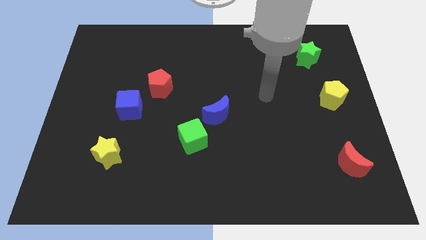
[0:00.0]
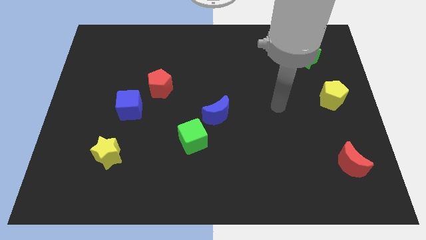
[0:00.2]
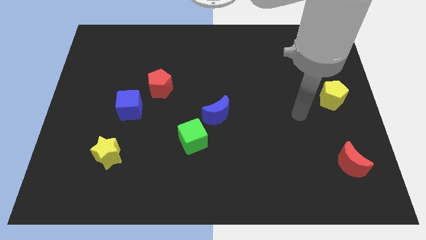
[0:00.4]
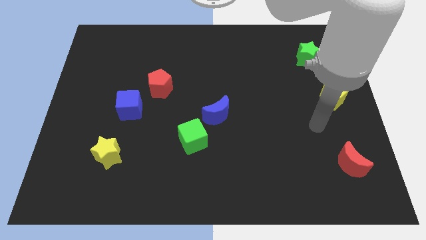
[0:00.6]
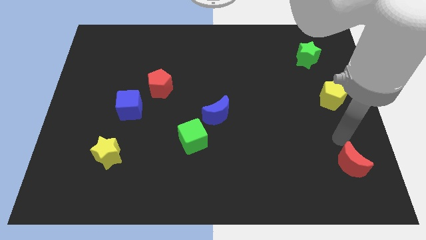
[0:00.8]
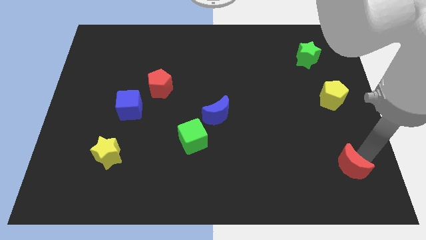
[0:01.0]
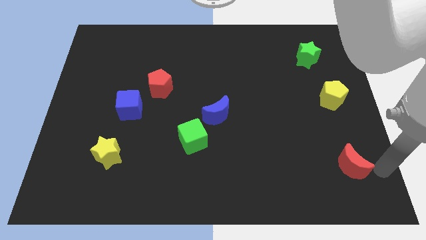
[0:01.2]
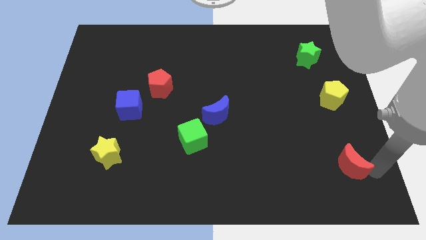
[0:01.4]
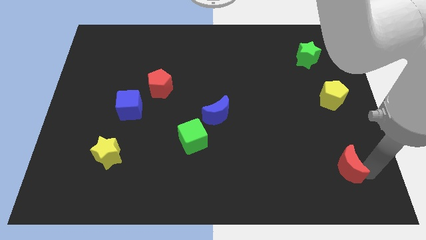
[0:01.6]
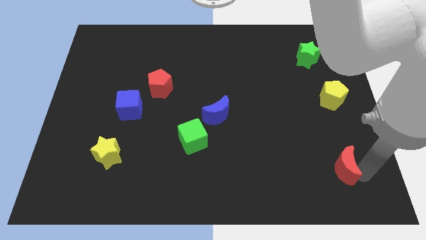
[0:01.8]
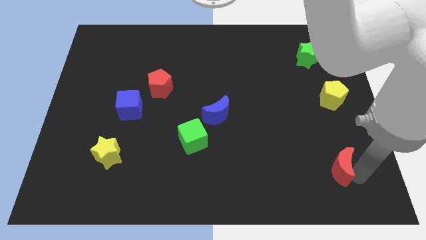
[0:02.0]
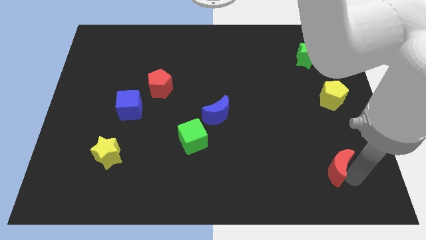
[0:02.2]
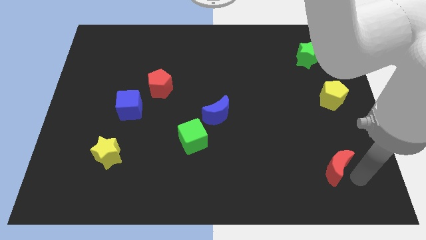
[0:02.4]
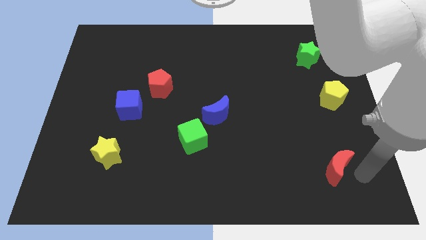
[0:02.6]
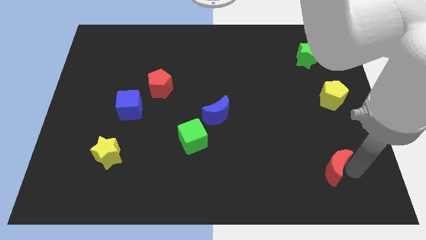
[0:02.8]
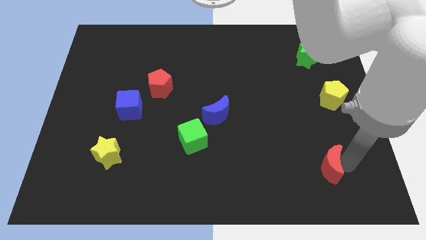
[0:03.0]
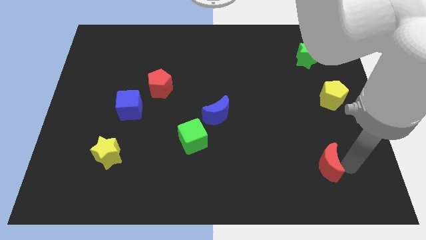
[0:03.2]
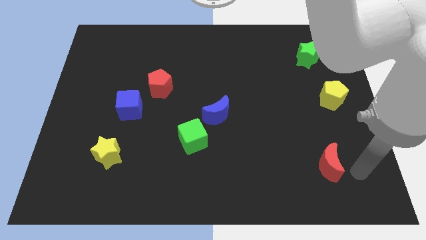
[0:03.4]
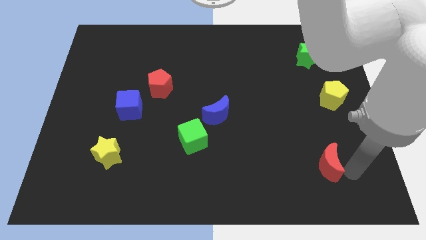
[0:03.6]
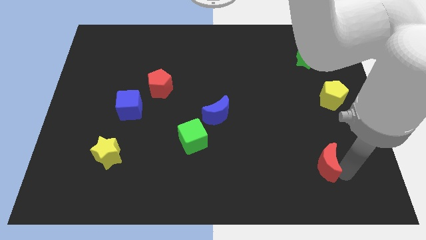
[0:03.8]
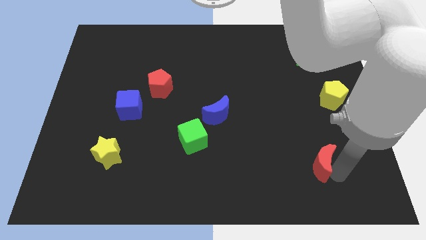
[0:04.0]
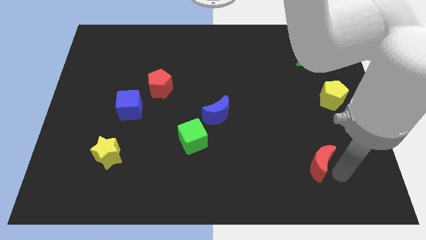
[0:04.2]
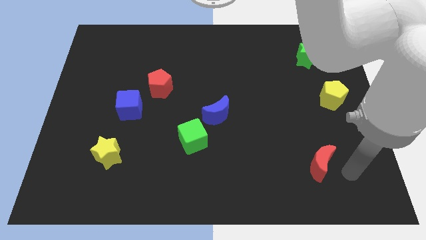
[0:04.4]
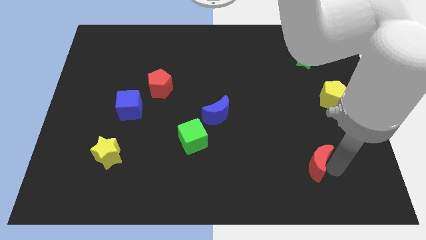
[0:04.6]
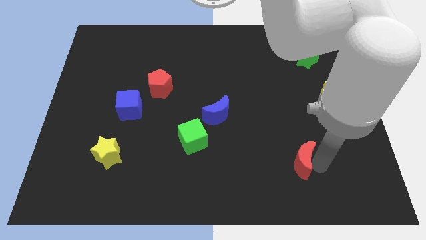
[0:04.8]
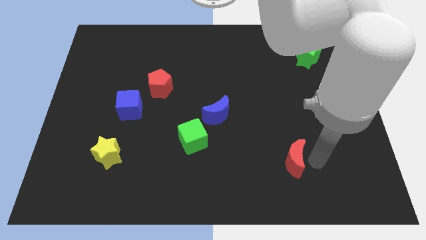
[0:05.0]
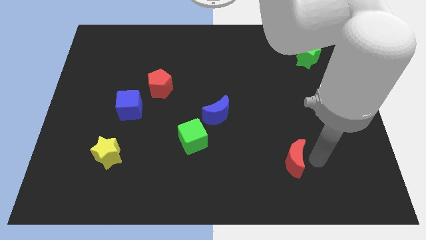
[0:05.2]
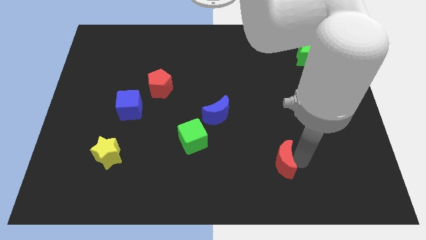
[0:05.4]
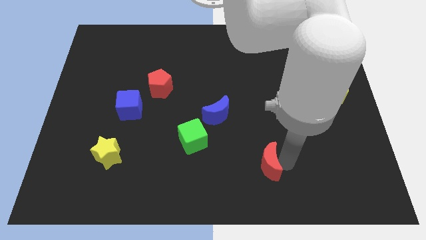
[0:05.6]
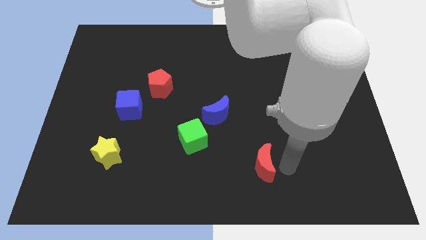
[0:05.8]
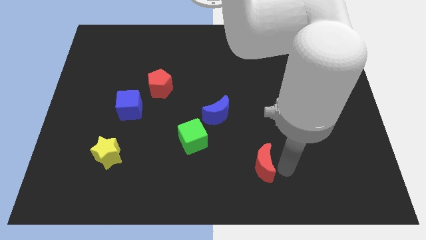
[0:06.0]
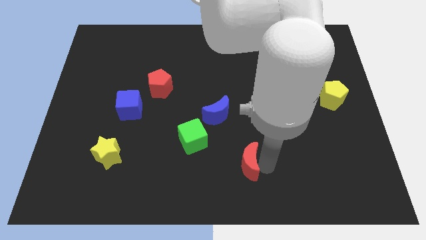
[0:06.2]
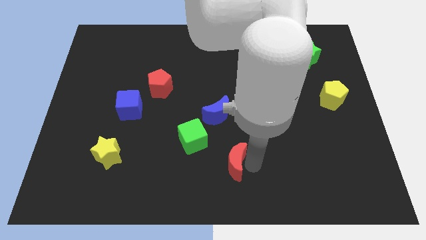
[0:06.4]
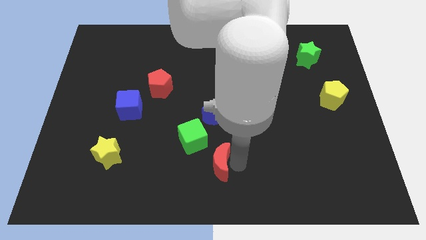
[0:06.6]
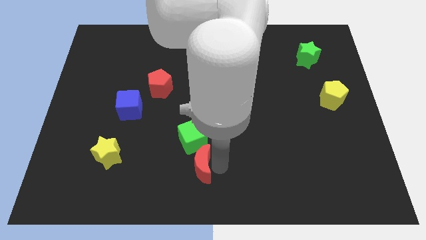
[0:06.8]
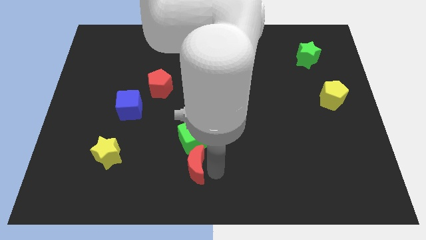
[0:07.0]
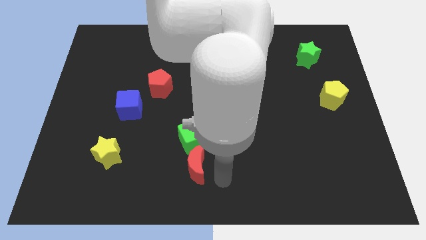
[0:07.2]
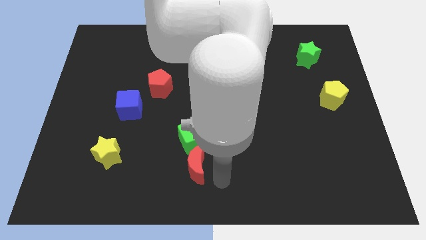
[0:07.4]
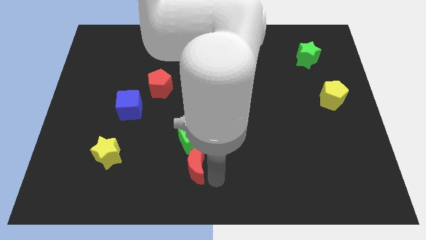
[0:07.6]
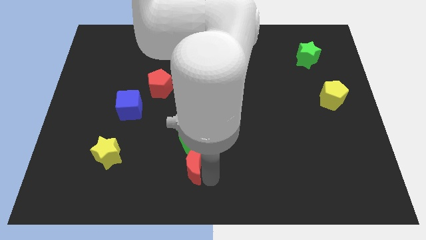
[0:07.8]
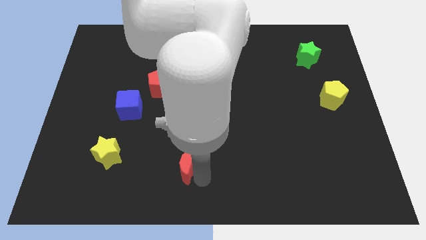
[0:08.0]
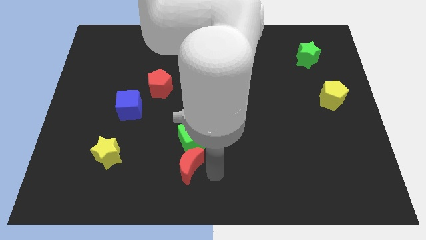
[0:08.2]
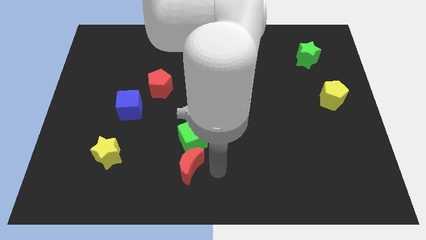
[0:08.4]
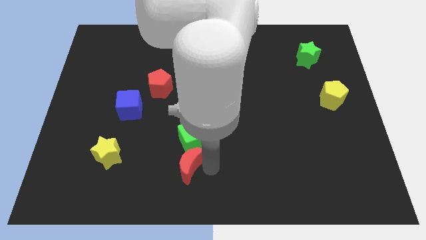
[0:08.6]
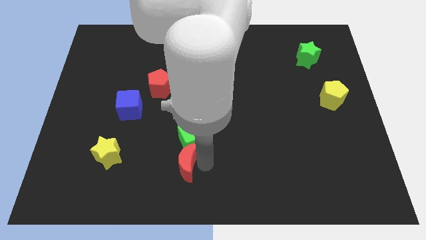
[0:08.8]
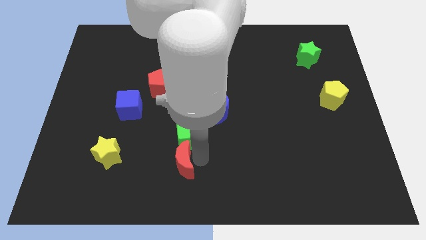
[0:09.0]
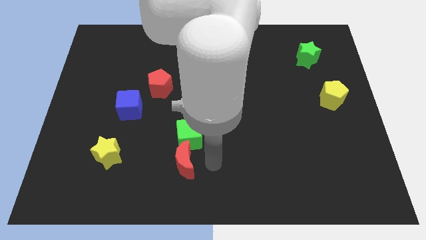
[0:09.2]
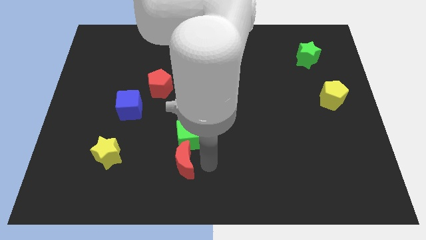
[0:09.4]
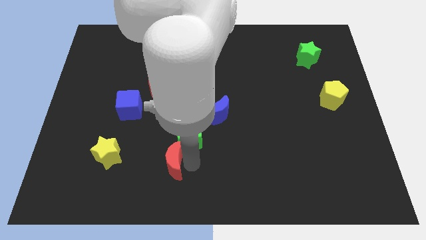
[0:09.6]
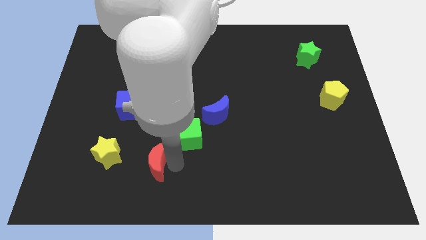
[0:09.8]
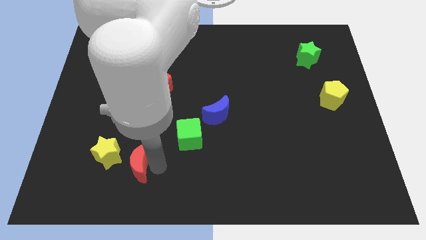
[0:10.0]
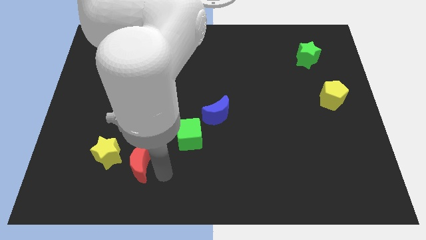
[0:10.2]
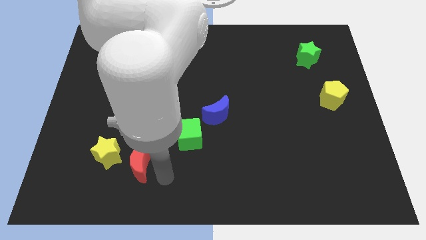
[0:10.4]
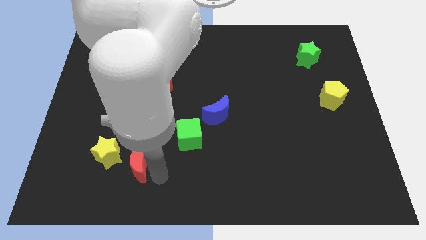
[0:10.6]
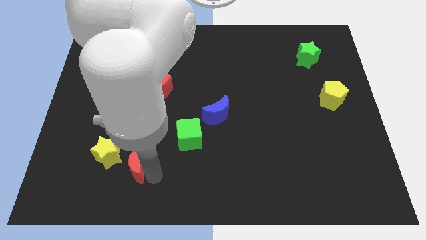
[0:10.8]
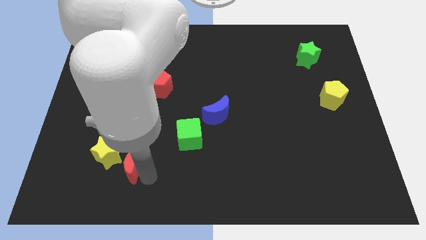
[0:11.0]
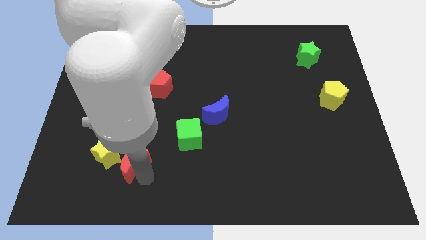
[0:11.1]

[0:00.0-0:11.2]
push the red moon next to the yellow star

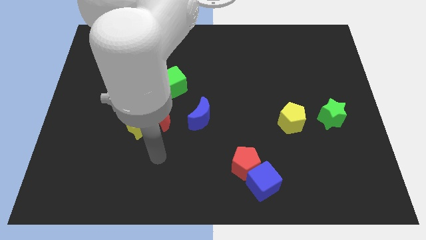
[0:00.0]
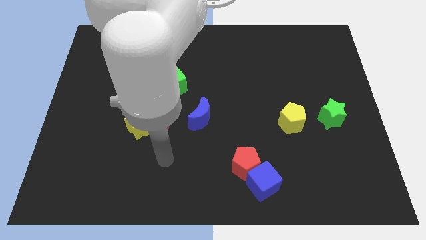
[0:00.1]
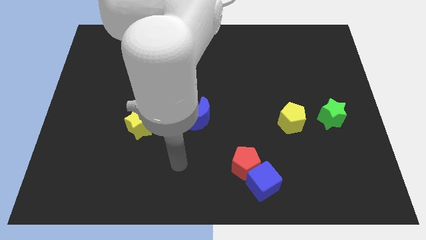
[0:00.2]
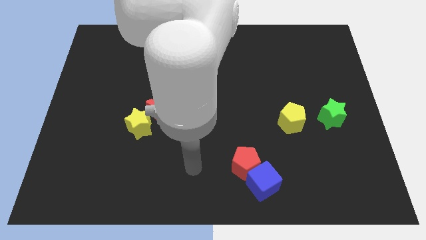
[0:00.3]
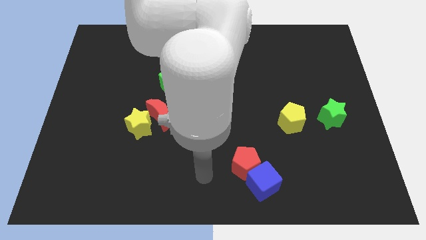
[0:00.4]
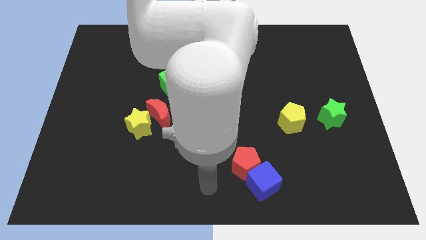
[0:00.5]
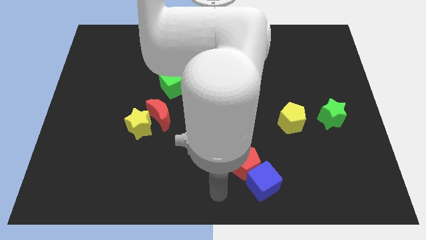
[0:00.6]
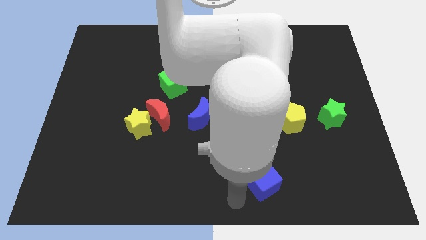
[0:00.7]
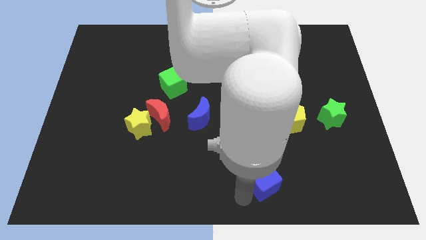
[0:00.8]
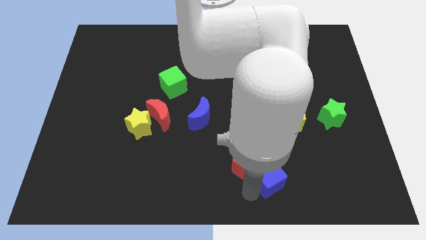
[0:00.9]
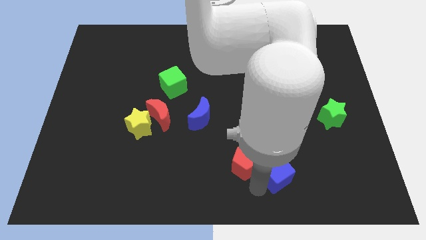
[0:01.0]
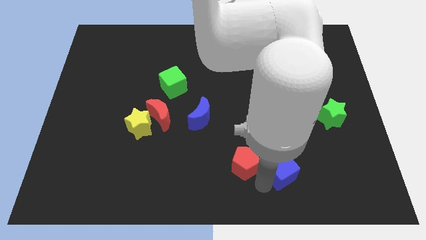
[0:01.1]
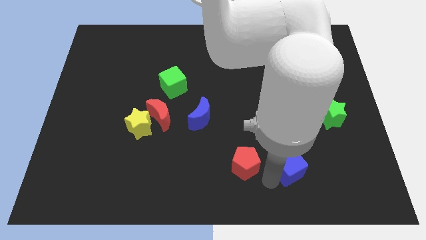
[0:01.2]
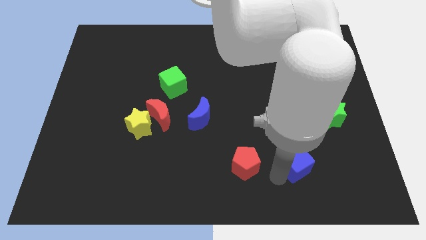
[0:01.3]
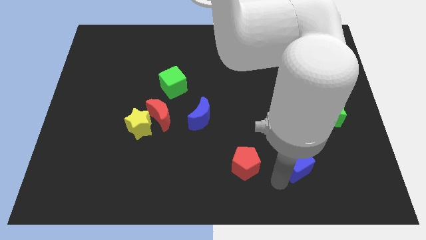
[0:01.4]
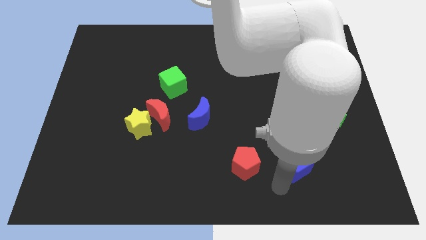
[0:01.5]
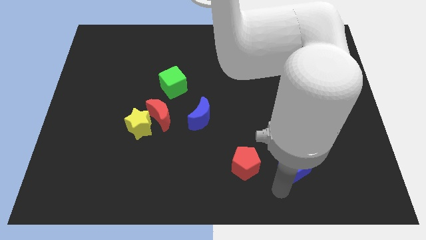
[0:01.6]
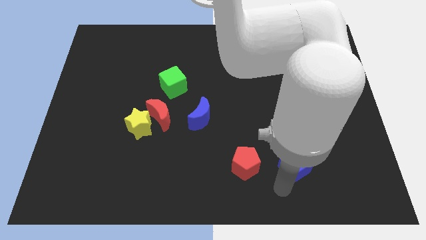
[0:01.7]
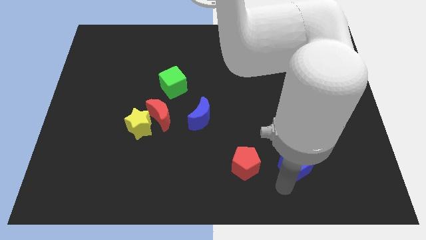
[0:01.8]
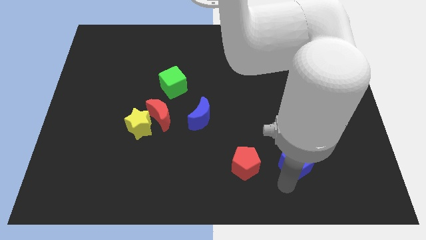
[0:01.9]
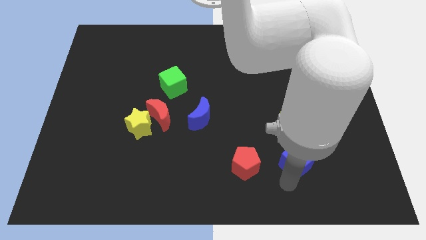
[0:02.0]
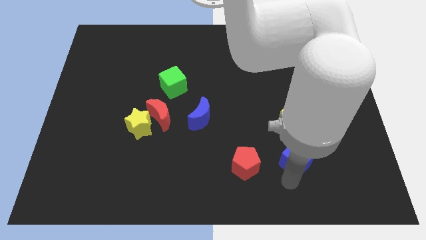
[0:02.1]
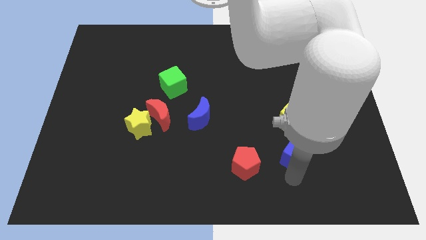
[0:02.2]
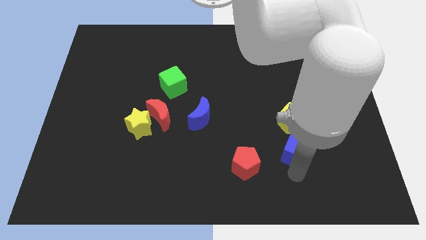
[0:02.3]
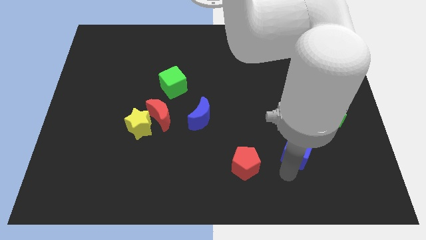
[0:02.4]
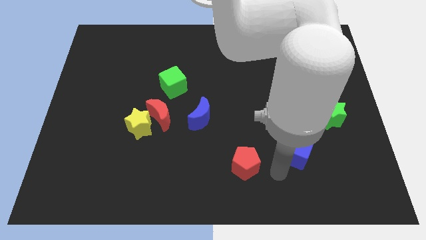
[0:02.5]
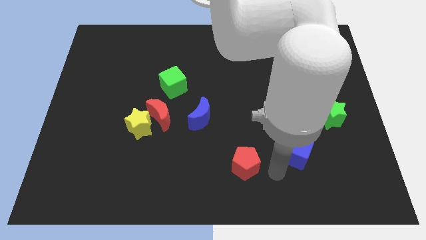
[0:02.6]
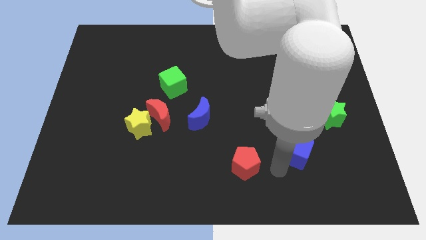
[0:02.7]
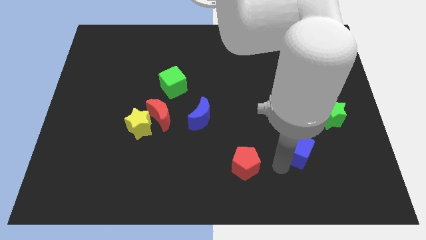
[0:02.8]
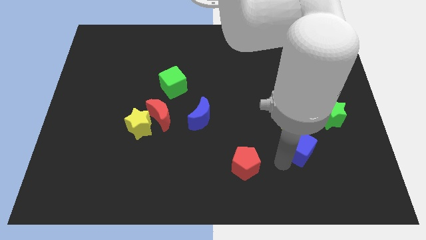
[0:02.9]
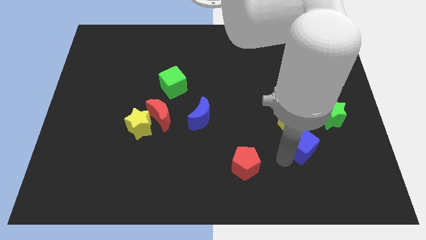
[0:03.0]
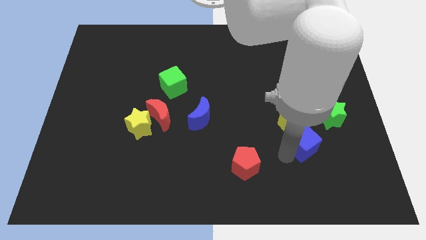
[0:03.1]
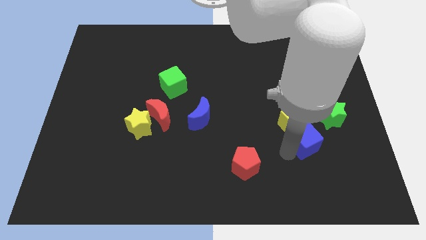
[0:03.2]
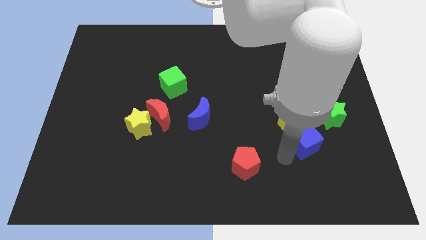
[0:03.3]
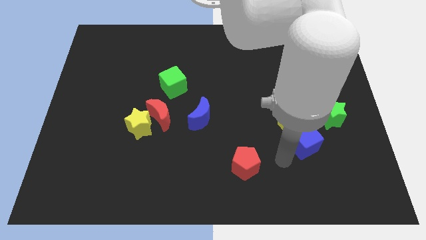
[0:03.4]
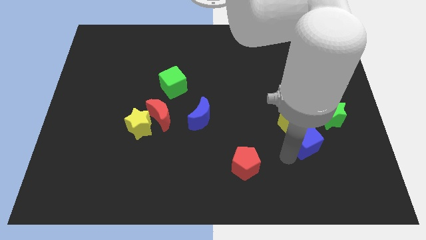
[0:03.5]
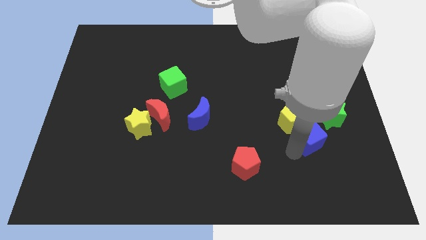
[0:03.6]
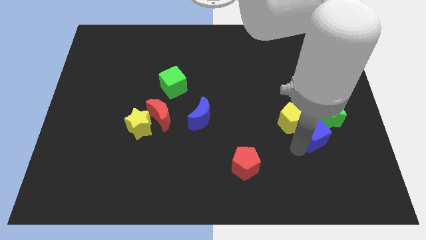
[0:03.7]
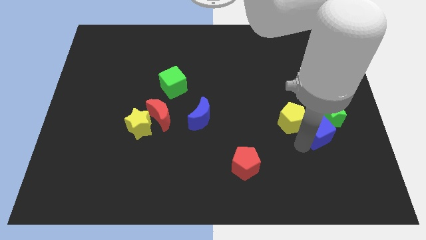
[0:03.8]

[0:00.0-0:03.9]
slide the blue cube to the green star
